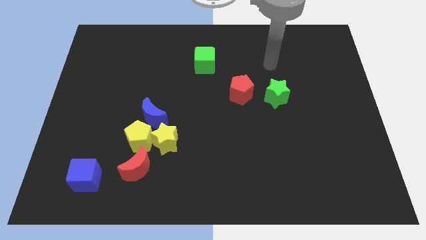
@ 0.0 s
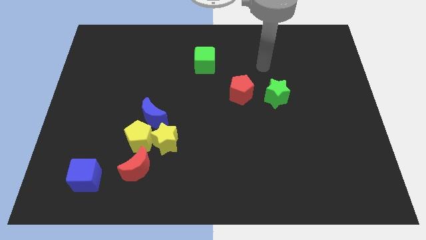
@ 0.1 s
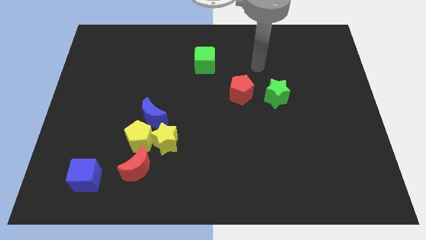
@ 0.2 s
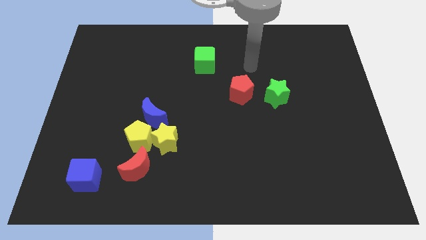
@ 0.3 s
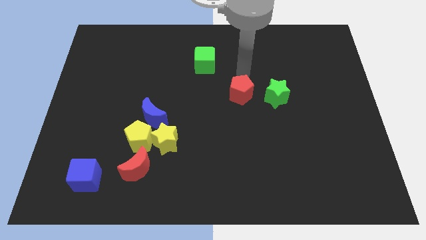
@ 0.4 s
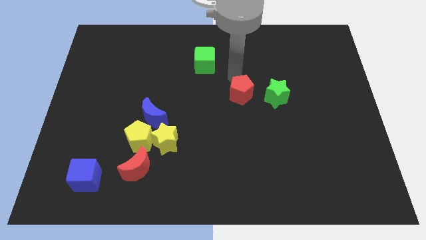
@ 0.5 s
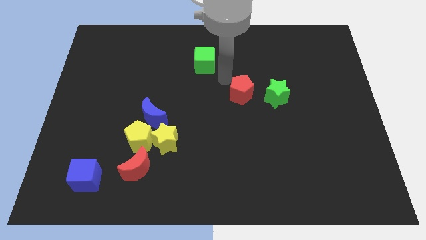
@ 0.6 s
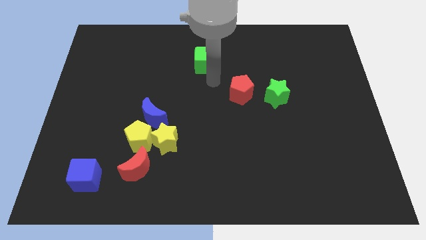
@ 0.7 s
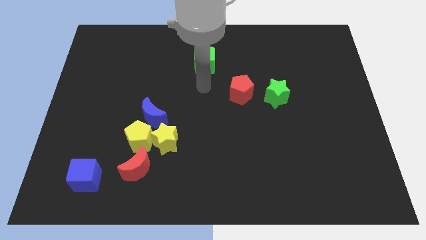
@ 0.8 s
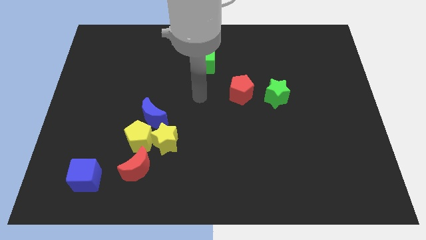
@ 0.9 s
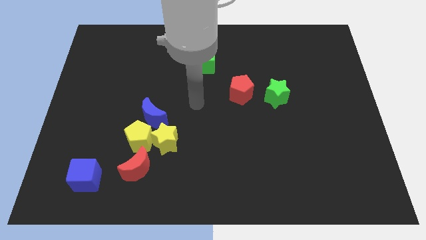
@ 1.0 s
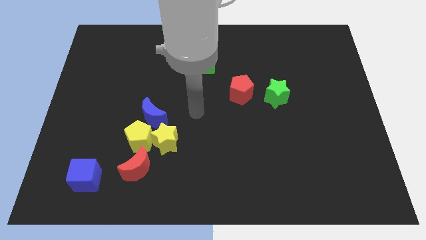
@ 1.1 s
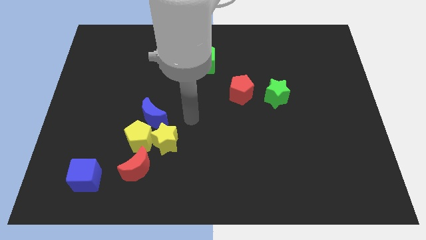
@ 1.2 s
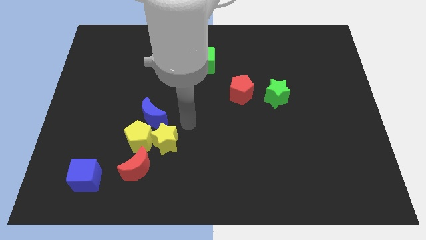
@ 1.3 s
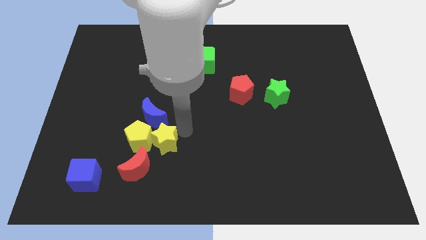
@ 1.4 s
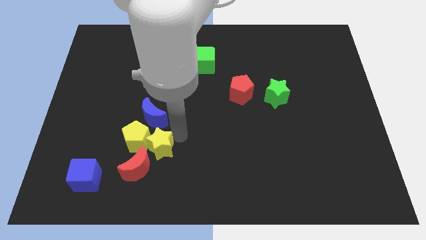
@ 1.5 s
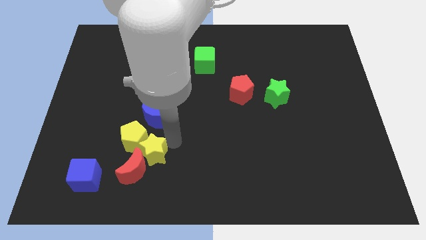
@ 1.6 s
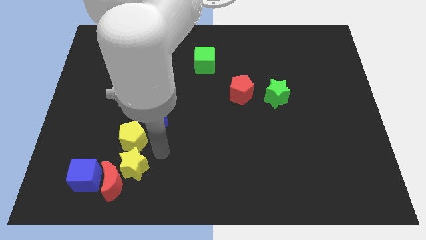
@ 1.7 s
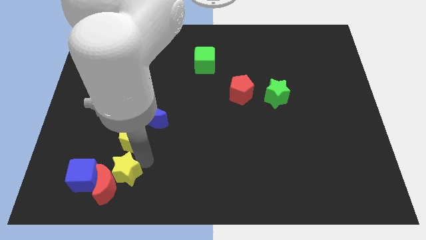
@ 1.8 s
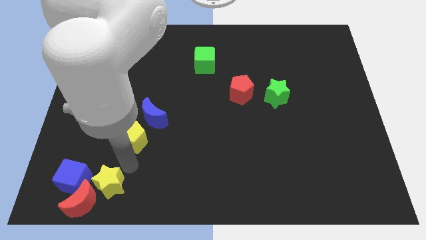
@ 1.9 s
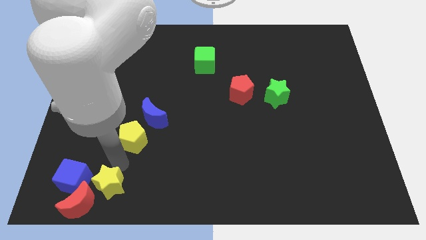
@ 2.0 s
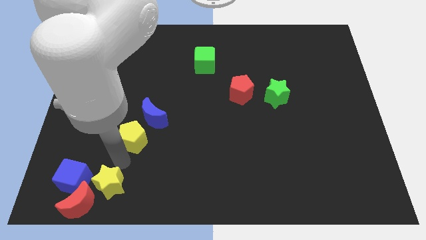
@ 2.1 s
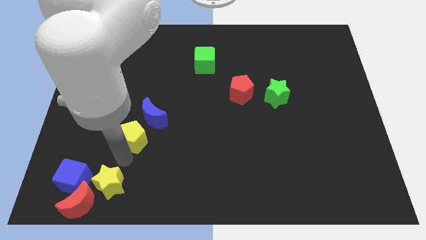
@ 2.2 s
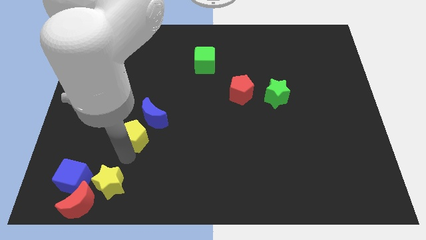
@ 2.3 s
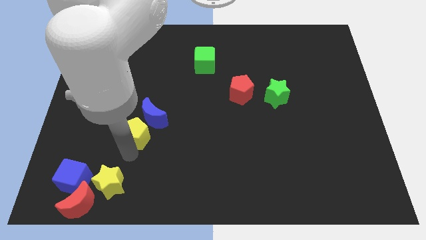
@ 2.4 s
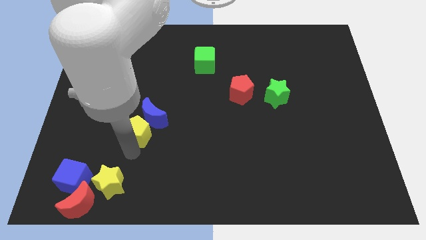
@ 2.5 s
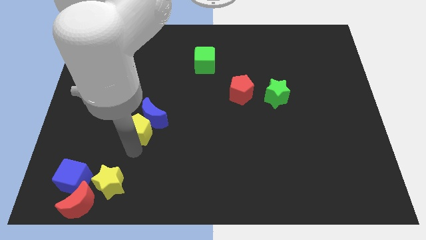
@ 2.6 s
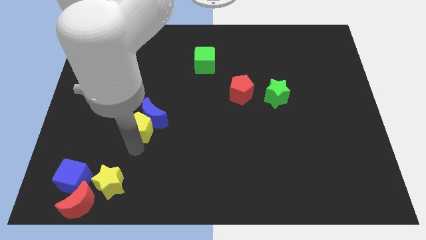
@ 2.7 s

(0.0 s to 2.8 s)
separate the yellow pentagon from the yellow star, blue moon, and red moon

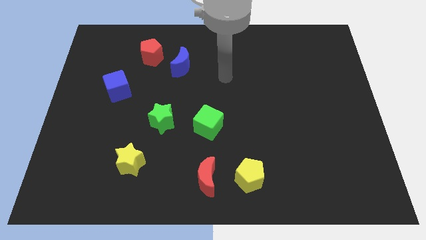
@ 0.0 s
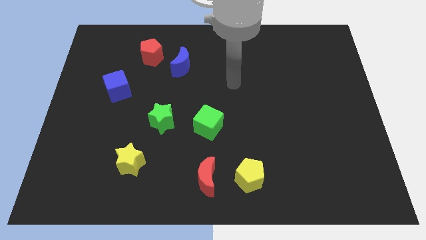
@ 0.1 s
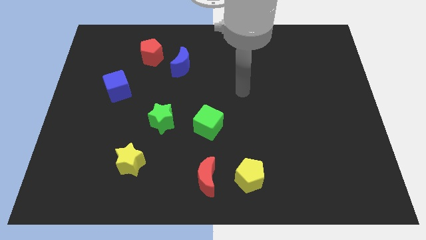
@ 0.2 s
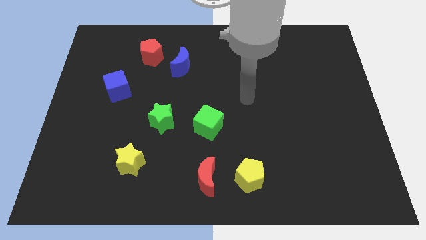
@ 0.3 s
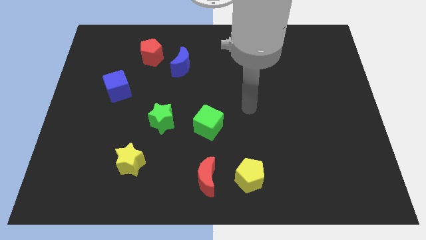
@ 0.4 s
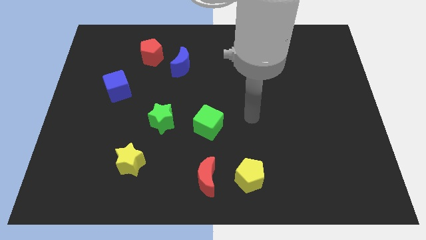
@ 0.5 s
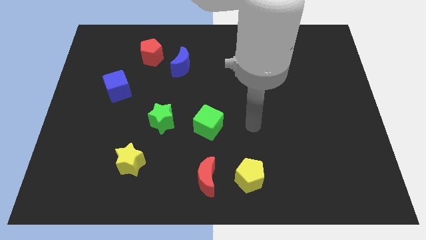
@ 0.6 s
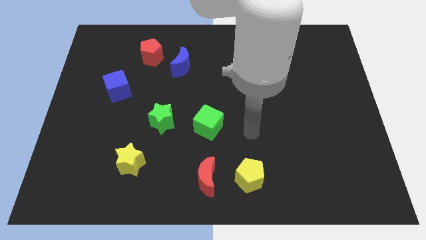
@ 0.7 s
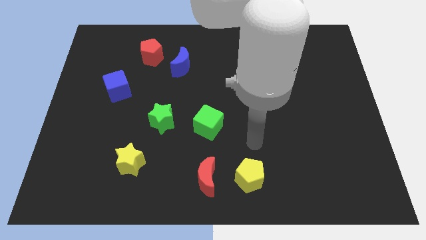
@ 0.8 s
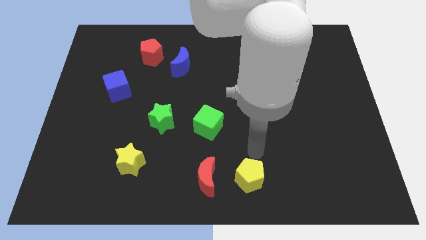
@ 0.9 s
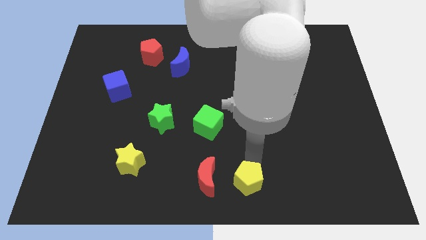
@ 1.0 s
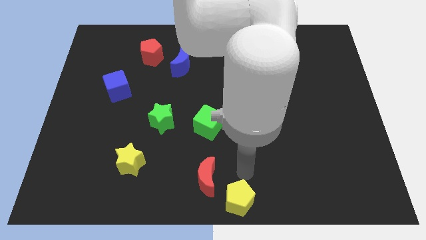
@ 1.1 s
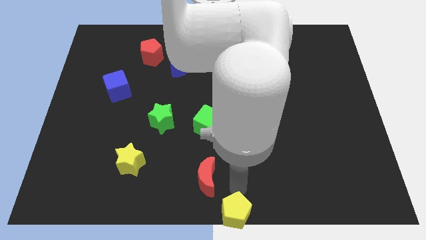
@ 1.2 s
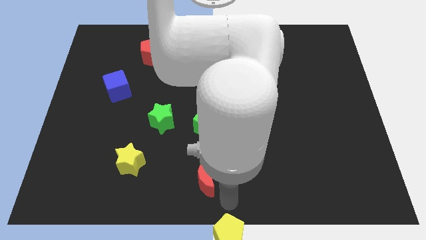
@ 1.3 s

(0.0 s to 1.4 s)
move the red moon away from the yellow pentagon

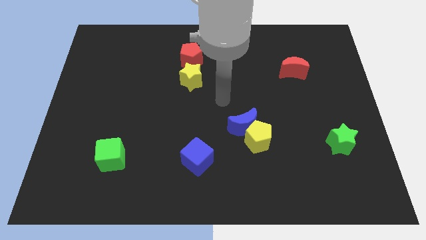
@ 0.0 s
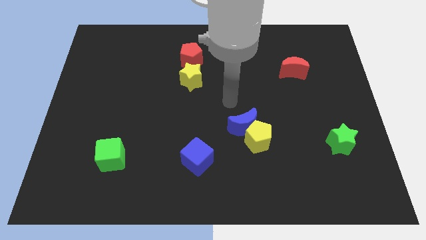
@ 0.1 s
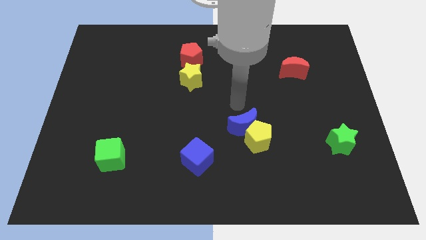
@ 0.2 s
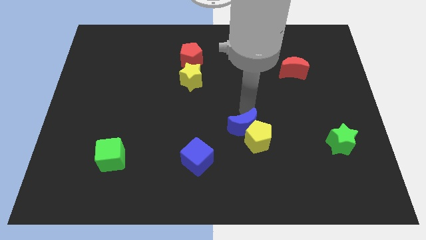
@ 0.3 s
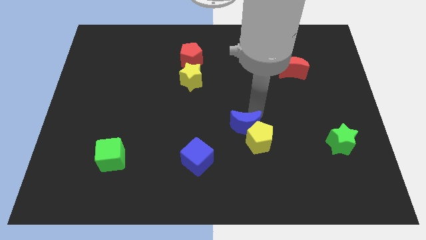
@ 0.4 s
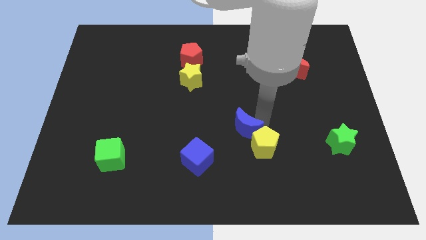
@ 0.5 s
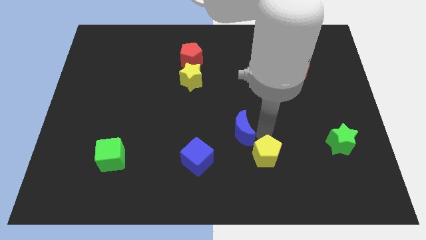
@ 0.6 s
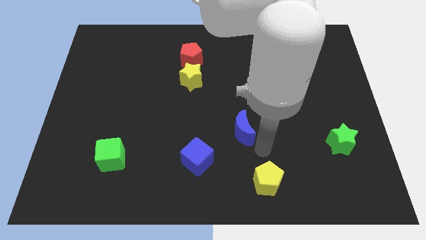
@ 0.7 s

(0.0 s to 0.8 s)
pull the blue moon apart from the yellow pentagon

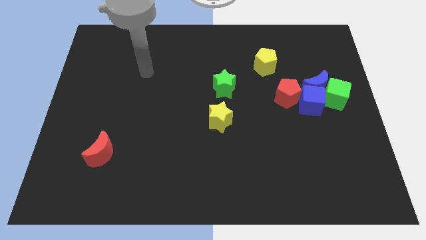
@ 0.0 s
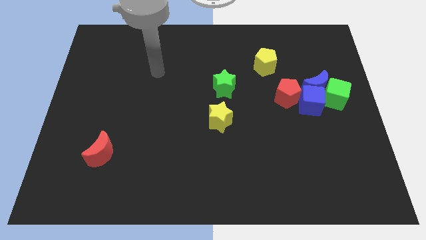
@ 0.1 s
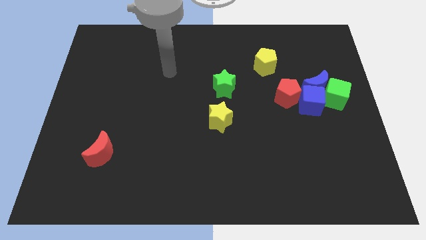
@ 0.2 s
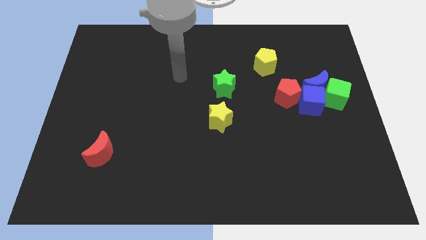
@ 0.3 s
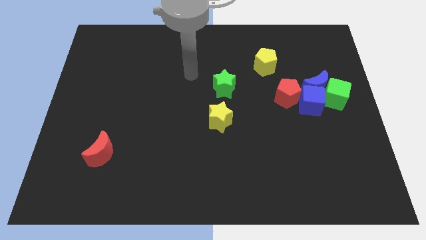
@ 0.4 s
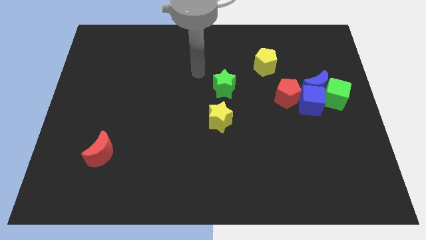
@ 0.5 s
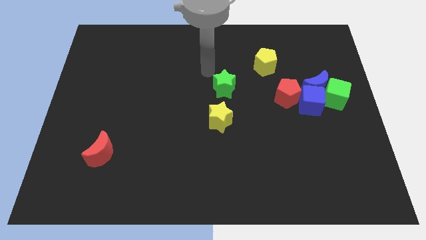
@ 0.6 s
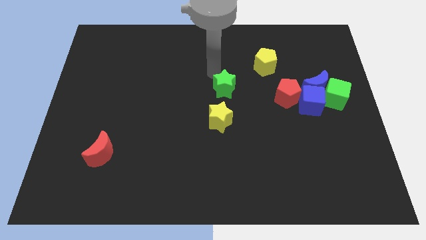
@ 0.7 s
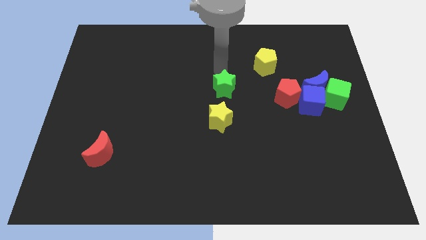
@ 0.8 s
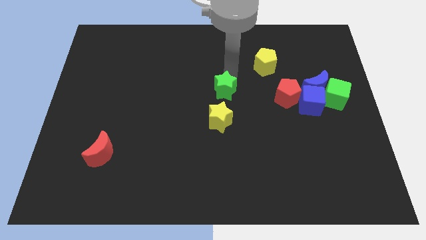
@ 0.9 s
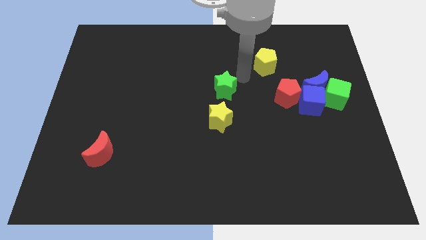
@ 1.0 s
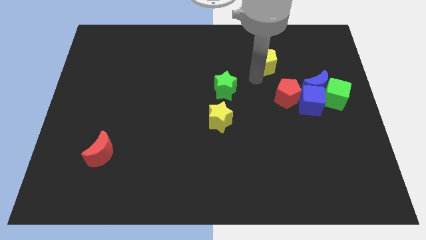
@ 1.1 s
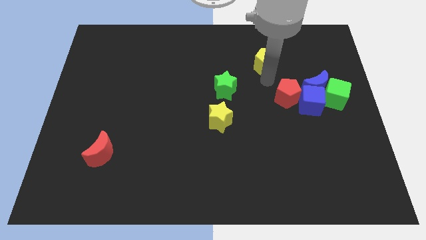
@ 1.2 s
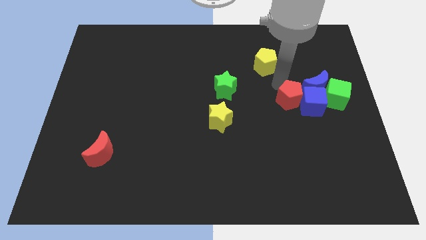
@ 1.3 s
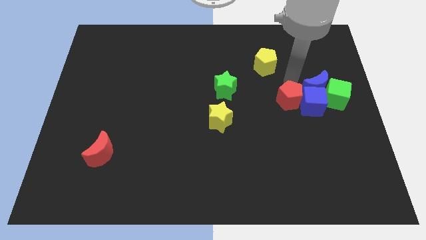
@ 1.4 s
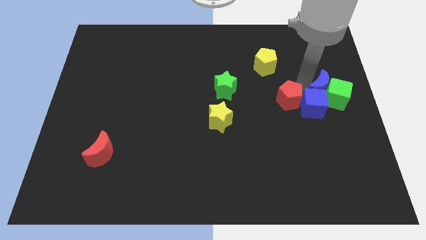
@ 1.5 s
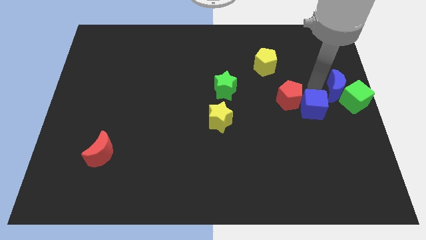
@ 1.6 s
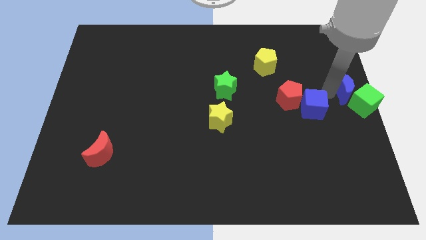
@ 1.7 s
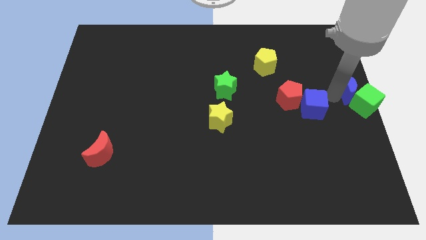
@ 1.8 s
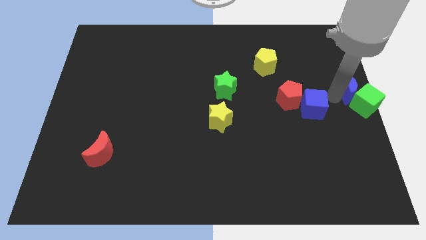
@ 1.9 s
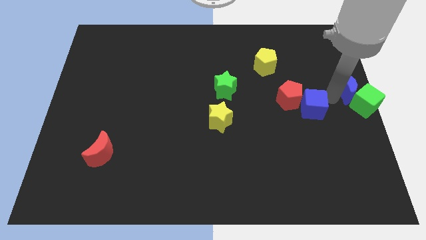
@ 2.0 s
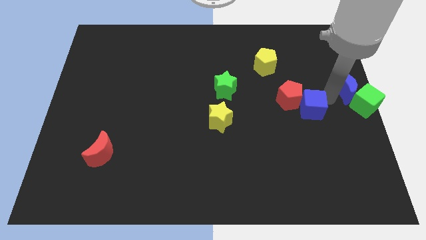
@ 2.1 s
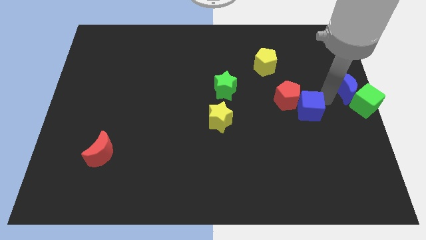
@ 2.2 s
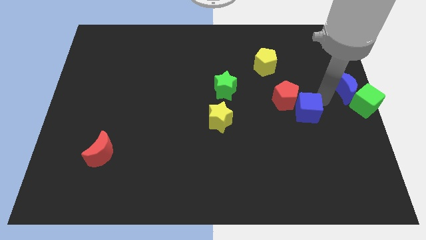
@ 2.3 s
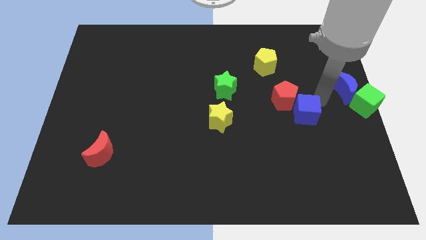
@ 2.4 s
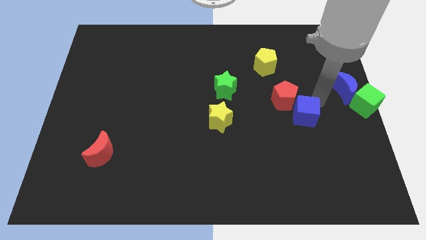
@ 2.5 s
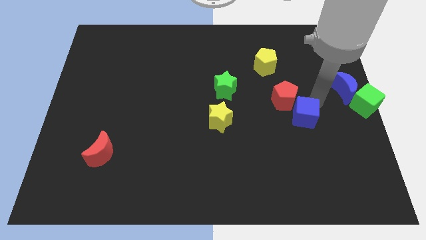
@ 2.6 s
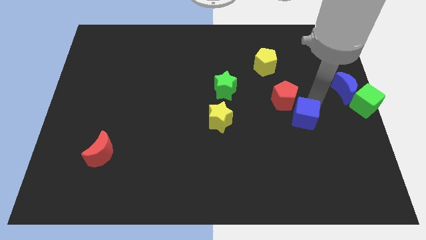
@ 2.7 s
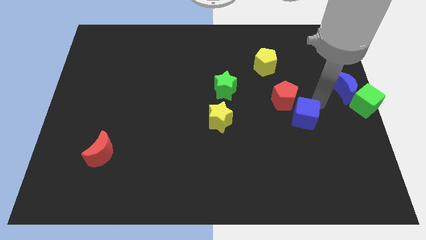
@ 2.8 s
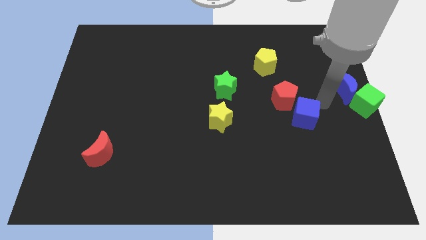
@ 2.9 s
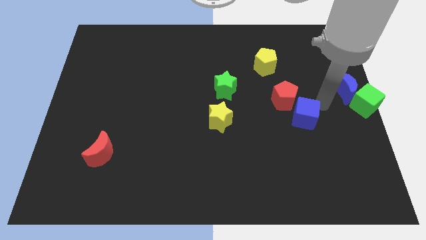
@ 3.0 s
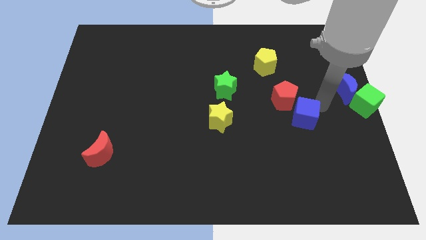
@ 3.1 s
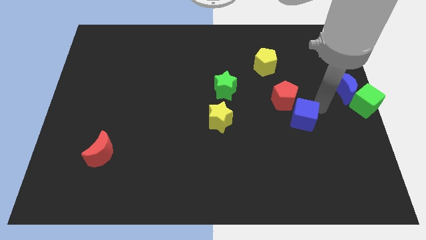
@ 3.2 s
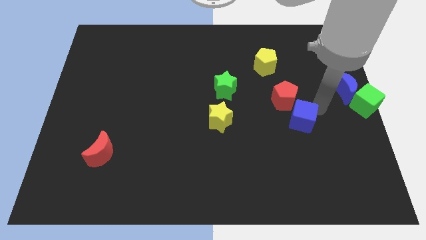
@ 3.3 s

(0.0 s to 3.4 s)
separate the blue cube from the blue moon, red pentagon, and green cube

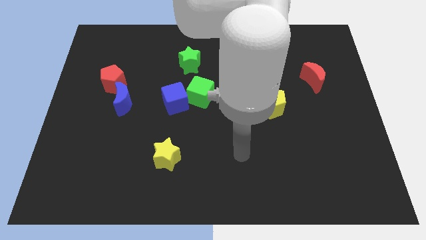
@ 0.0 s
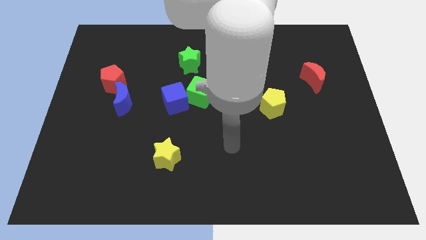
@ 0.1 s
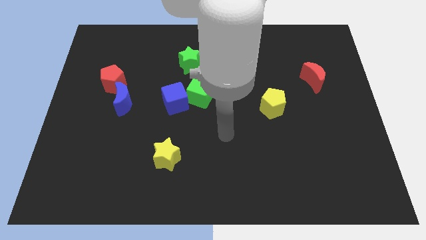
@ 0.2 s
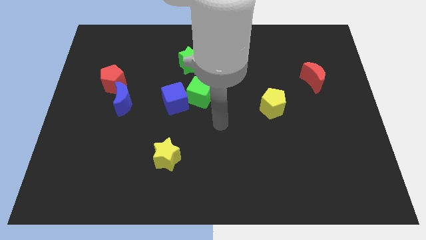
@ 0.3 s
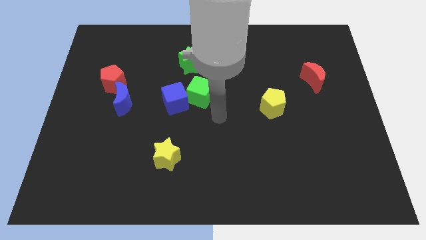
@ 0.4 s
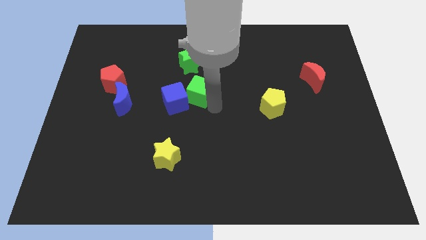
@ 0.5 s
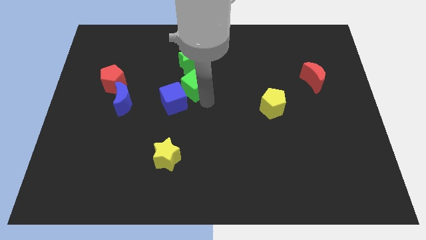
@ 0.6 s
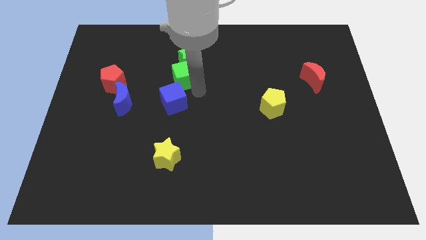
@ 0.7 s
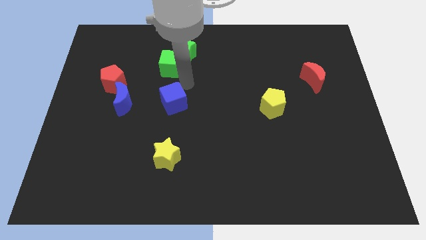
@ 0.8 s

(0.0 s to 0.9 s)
separate the blue cube from the green cube
